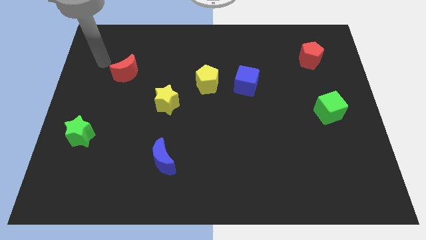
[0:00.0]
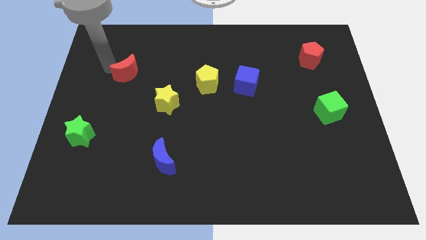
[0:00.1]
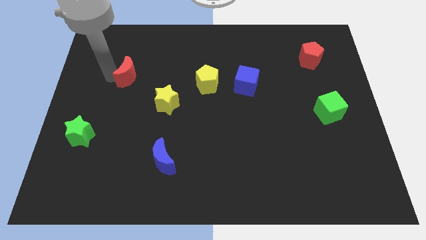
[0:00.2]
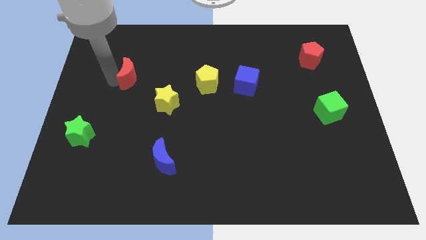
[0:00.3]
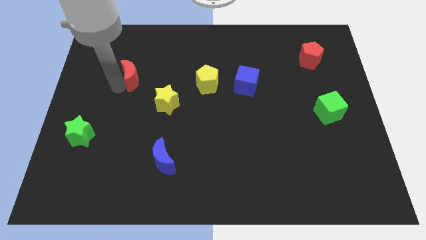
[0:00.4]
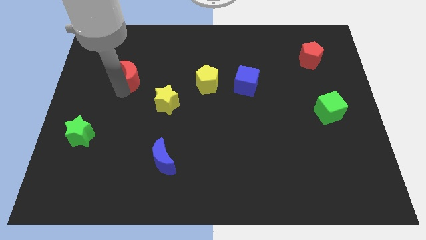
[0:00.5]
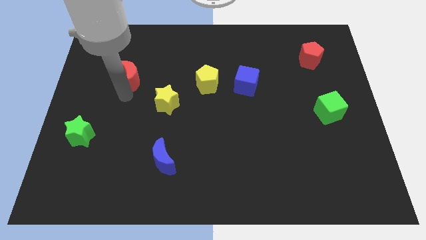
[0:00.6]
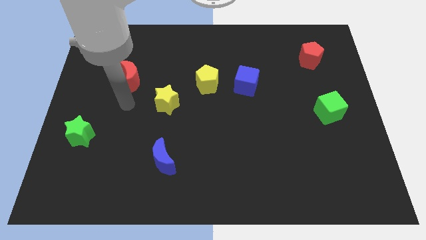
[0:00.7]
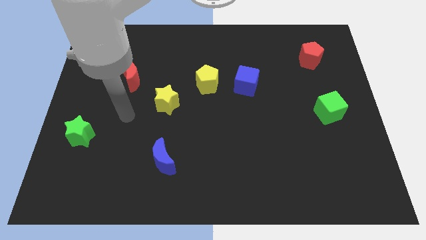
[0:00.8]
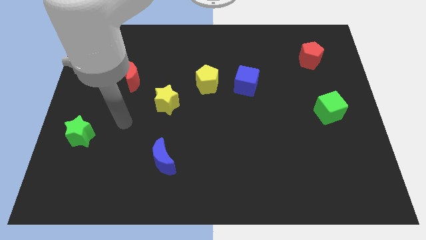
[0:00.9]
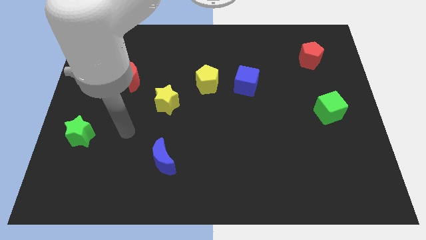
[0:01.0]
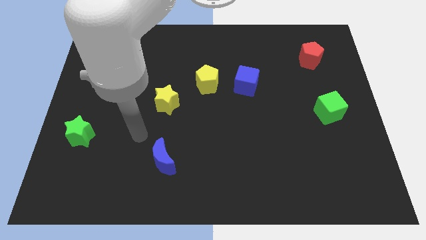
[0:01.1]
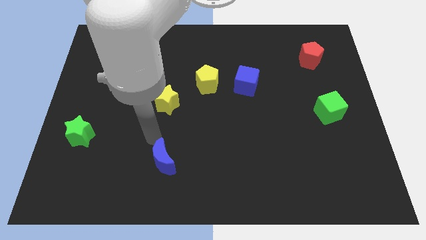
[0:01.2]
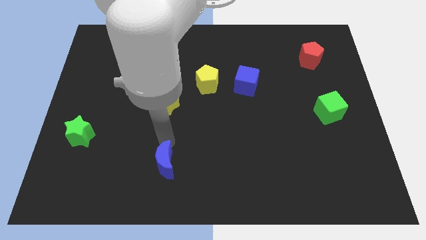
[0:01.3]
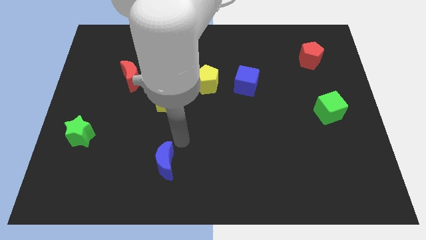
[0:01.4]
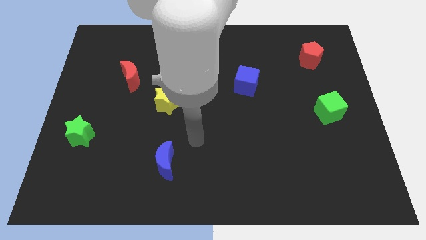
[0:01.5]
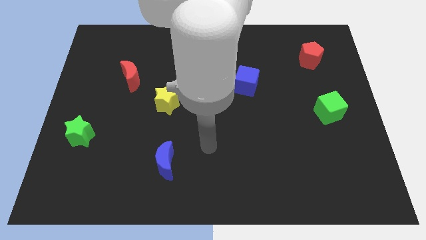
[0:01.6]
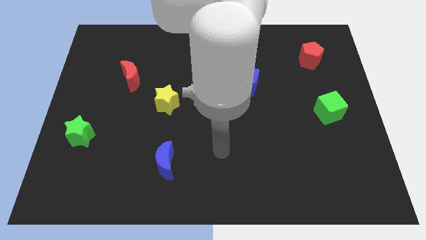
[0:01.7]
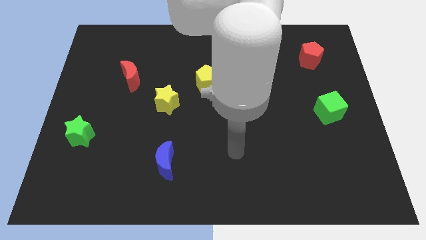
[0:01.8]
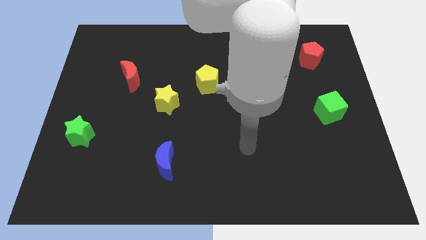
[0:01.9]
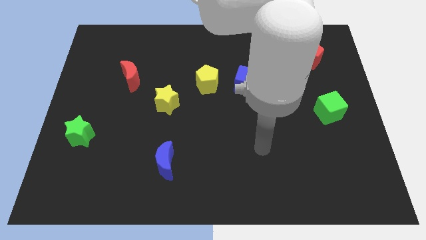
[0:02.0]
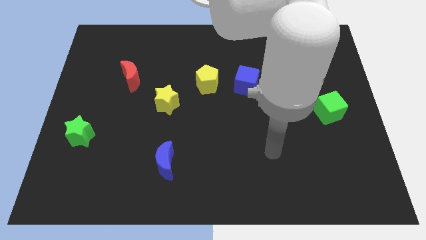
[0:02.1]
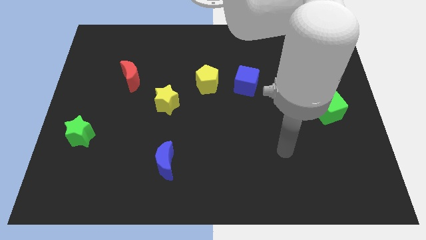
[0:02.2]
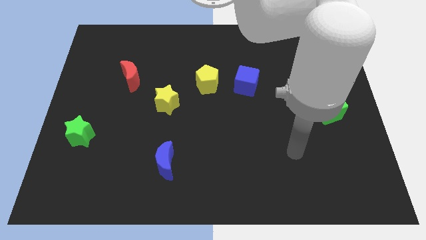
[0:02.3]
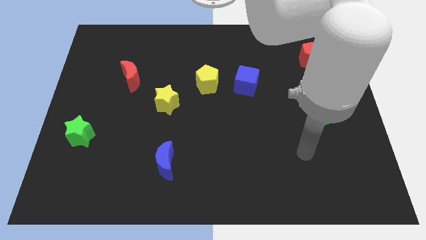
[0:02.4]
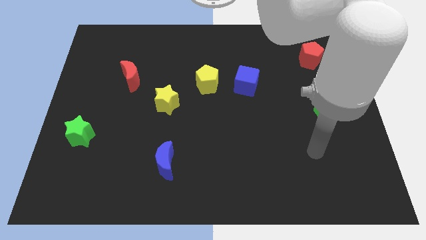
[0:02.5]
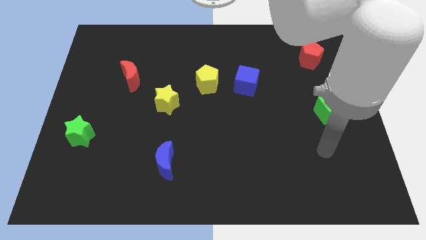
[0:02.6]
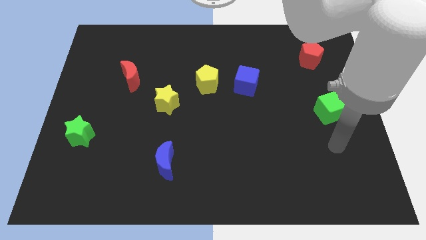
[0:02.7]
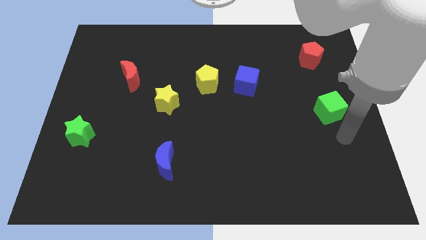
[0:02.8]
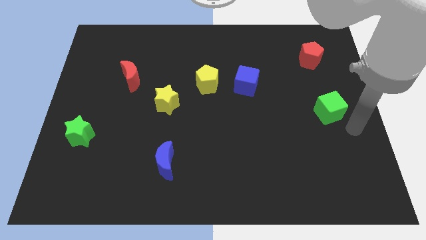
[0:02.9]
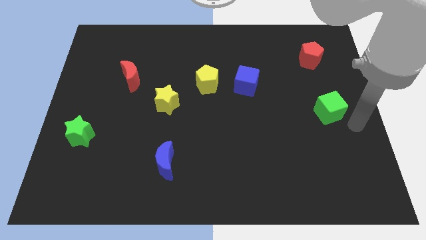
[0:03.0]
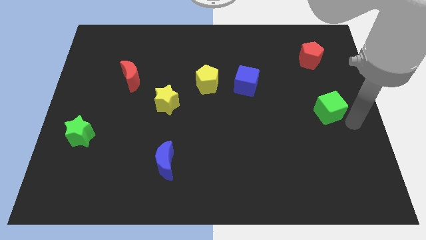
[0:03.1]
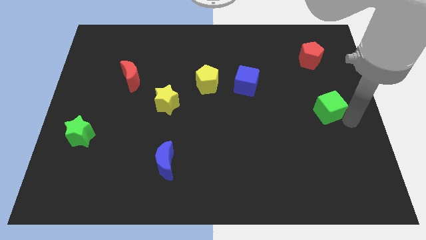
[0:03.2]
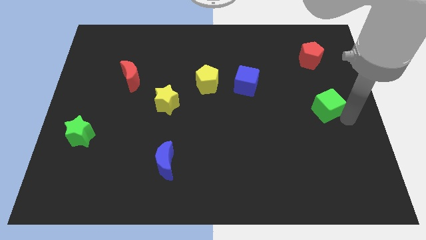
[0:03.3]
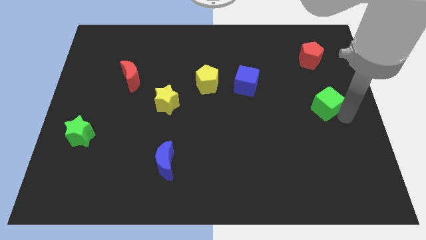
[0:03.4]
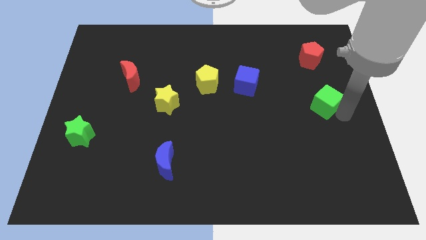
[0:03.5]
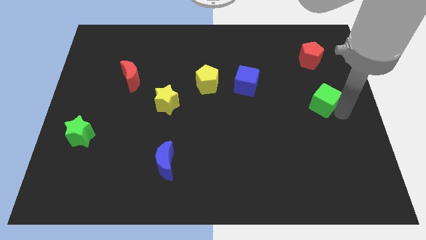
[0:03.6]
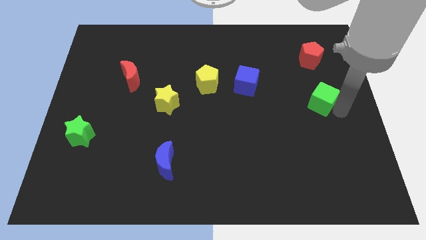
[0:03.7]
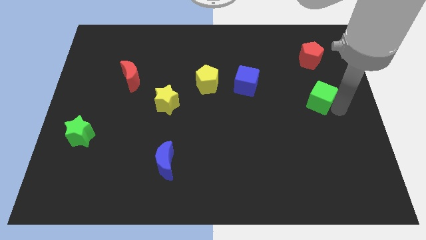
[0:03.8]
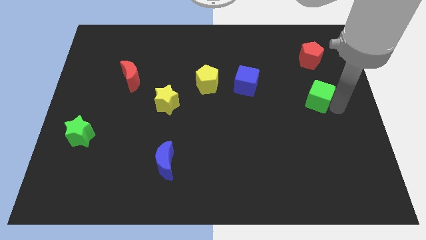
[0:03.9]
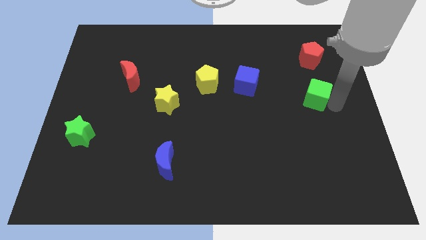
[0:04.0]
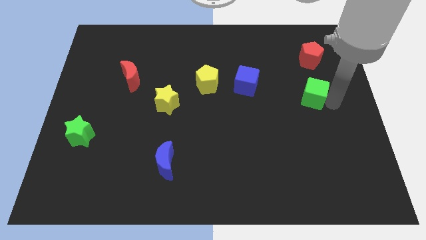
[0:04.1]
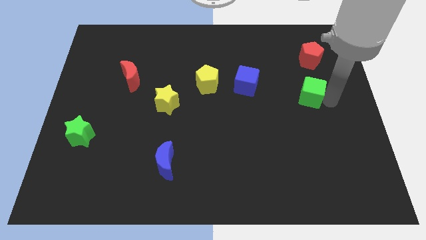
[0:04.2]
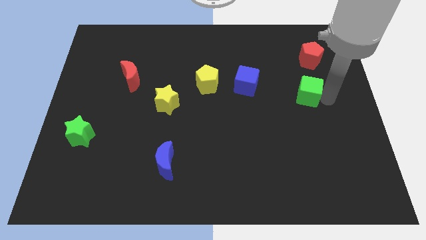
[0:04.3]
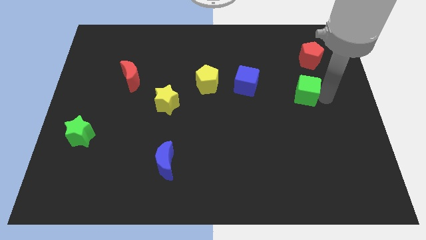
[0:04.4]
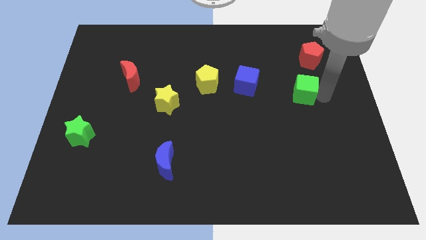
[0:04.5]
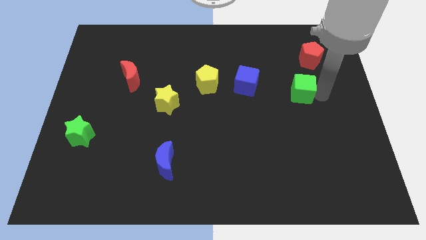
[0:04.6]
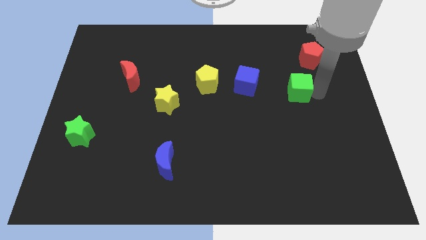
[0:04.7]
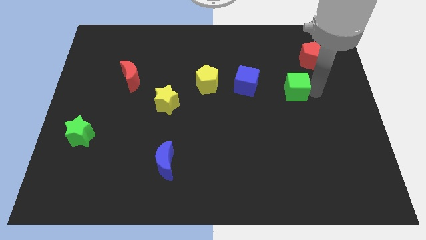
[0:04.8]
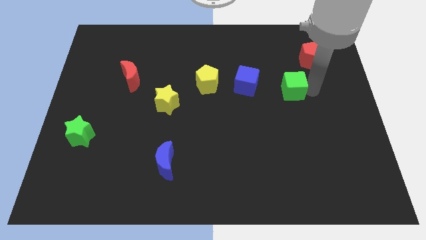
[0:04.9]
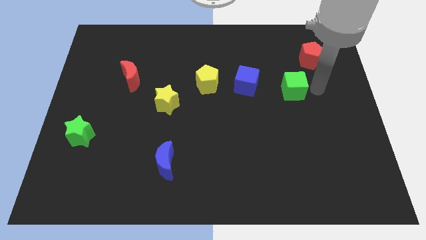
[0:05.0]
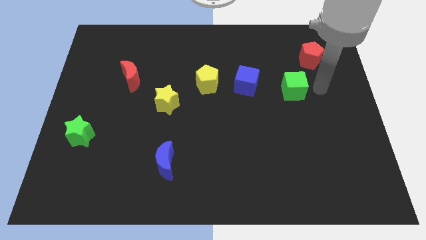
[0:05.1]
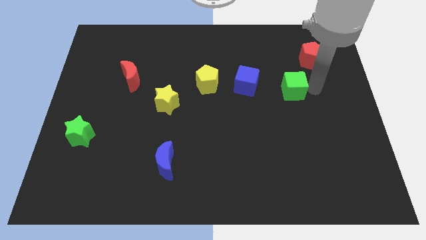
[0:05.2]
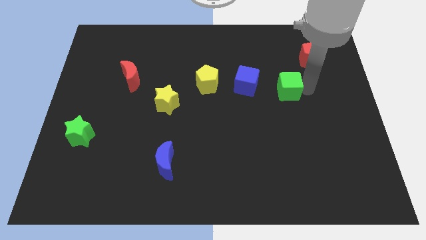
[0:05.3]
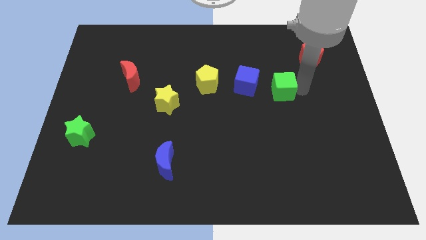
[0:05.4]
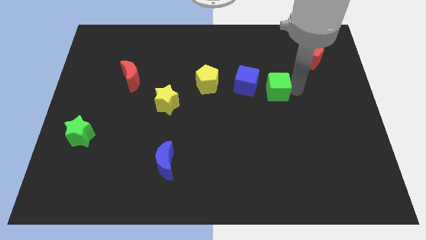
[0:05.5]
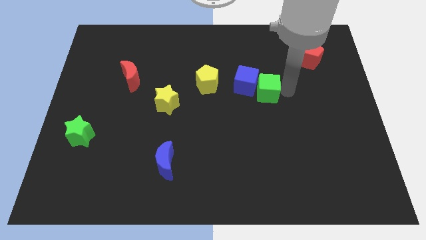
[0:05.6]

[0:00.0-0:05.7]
put the green cube towards the blue cube

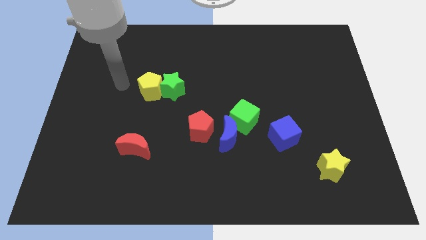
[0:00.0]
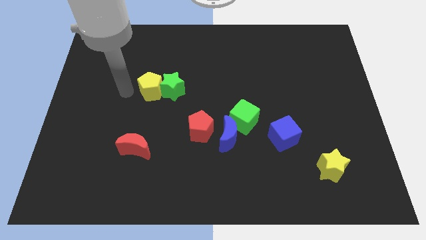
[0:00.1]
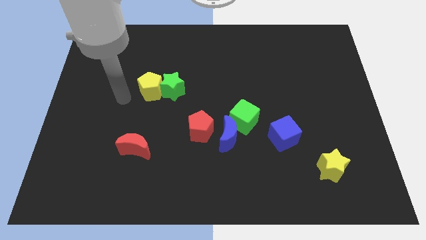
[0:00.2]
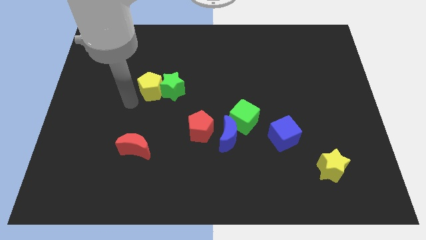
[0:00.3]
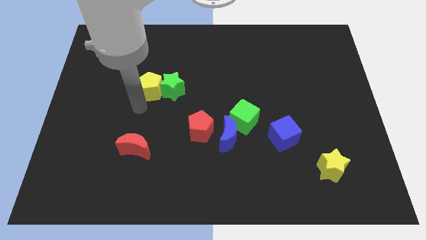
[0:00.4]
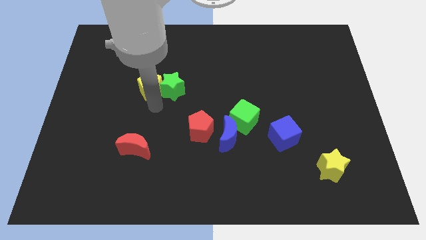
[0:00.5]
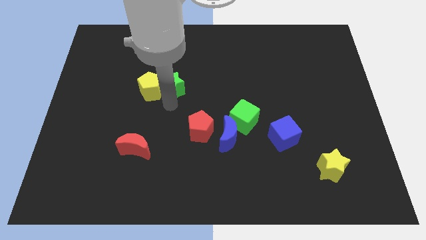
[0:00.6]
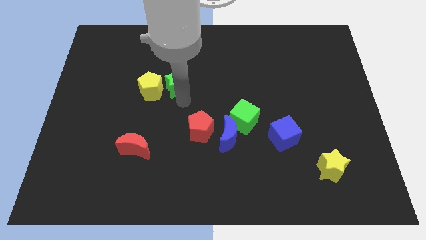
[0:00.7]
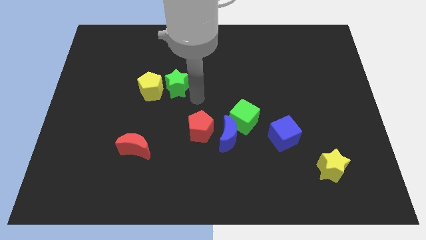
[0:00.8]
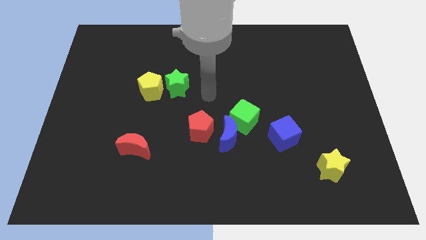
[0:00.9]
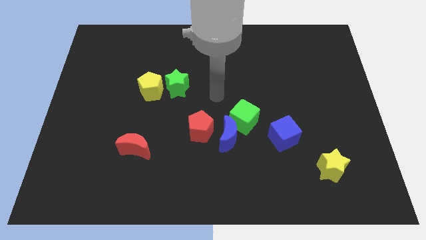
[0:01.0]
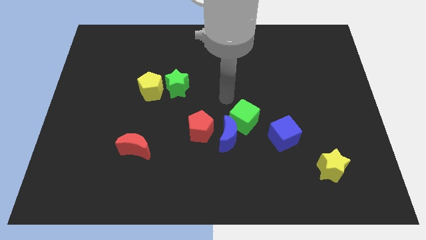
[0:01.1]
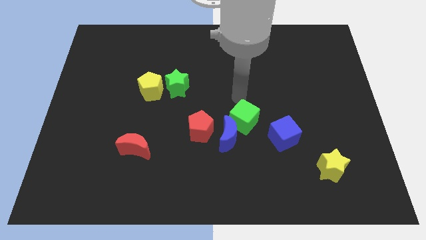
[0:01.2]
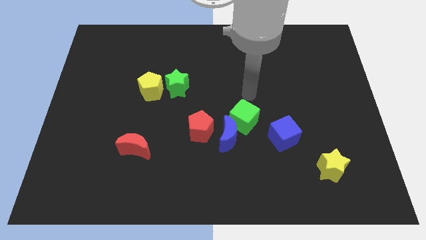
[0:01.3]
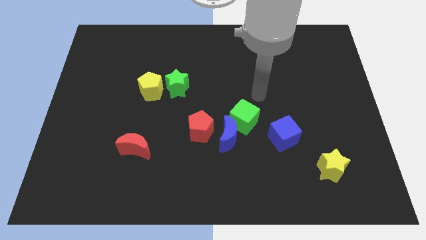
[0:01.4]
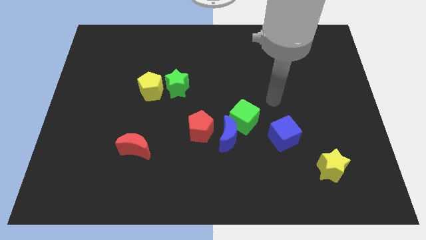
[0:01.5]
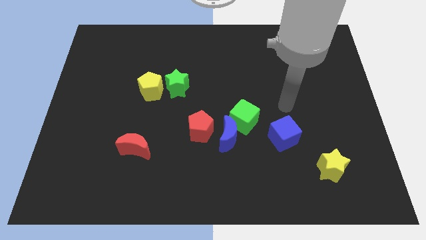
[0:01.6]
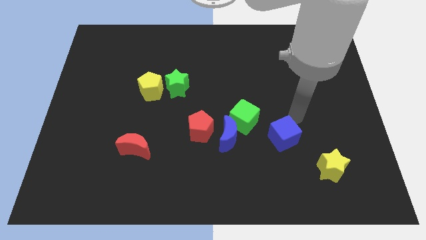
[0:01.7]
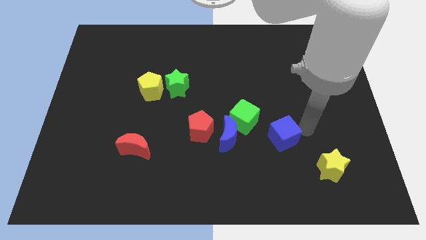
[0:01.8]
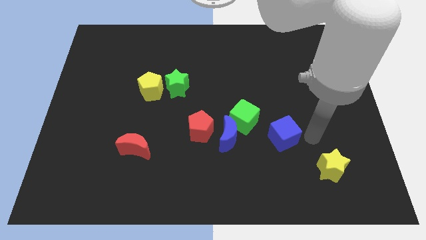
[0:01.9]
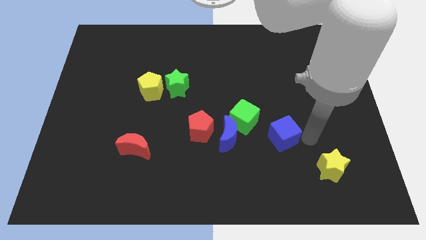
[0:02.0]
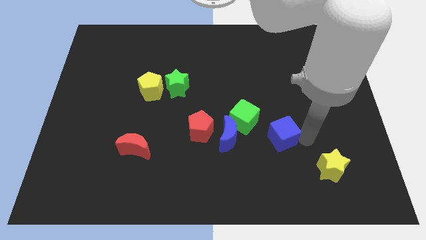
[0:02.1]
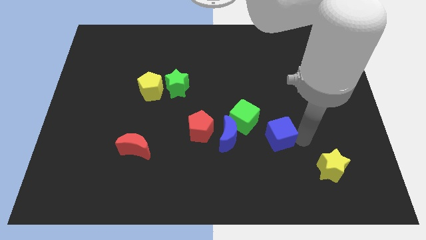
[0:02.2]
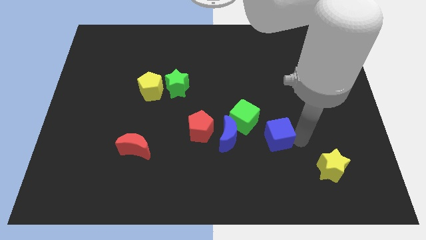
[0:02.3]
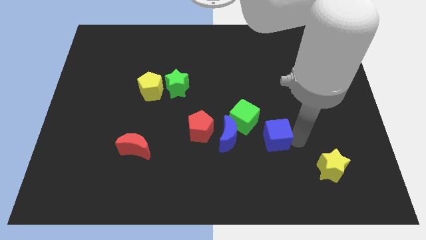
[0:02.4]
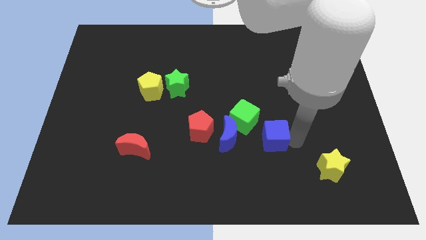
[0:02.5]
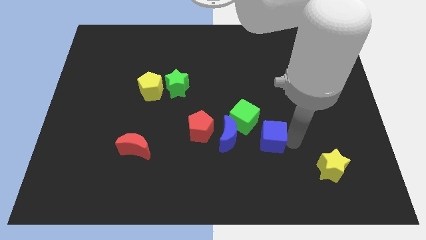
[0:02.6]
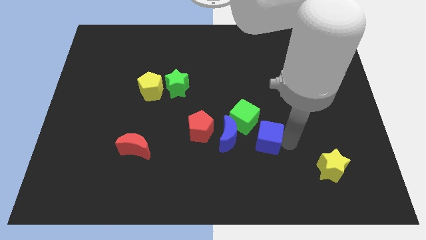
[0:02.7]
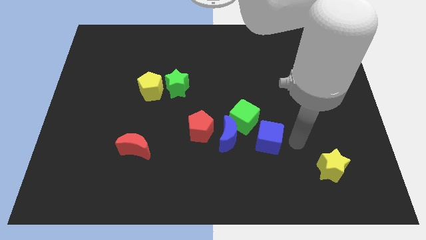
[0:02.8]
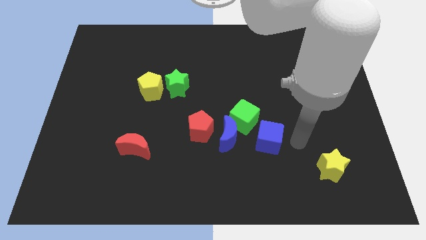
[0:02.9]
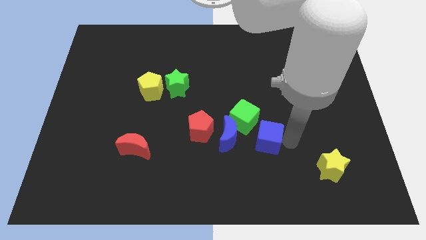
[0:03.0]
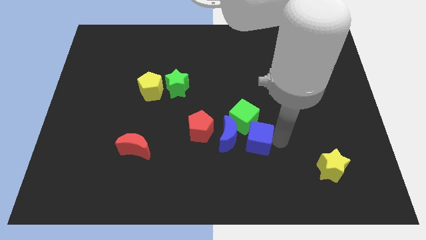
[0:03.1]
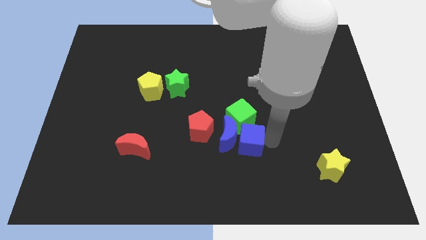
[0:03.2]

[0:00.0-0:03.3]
slide the blue cube towards the blue moon
